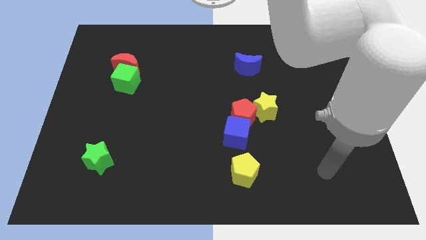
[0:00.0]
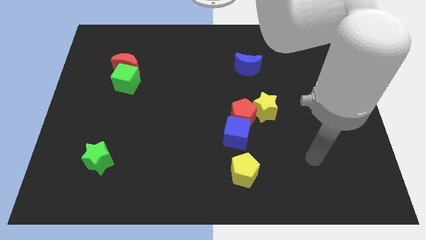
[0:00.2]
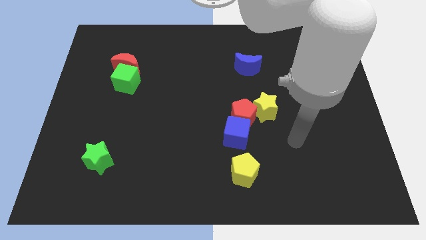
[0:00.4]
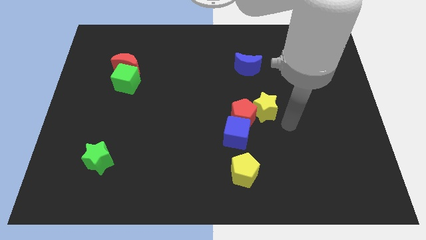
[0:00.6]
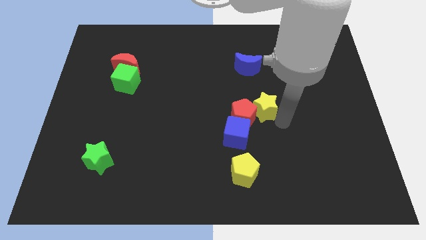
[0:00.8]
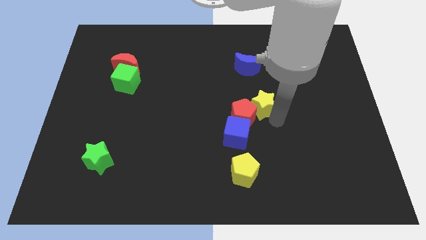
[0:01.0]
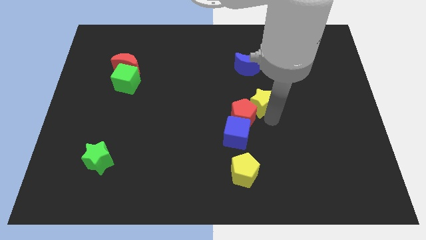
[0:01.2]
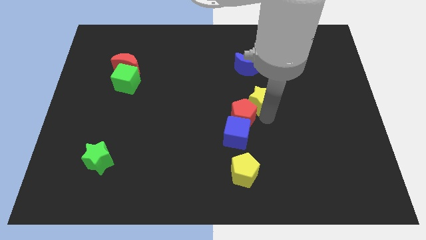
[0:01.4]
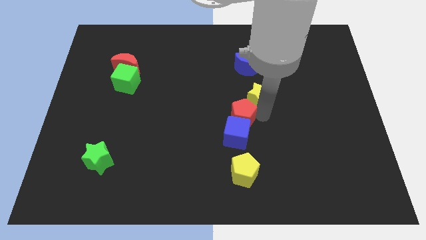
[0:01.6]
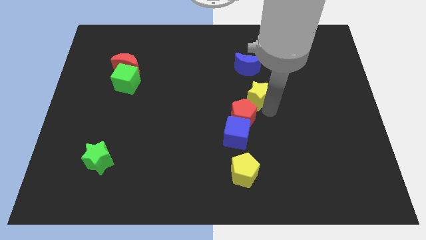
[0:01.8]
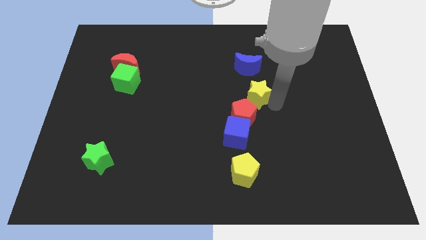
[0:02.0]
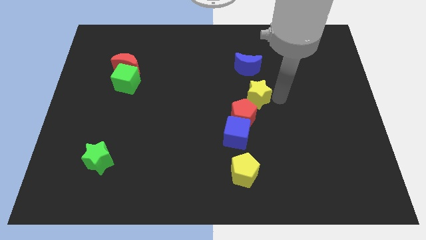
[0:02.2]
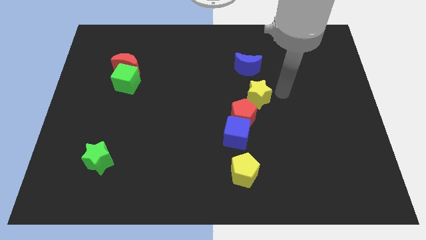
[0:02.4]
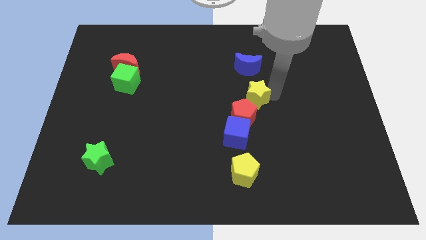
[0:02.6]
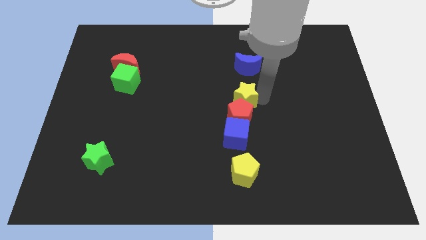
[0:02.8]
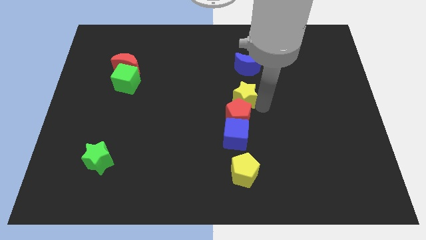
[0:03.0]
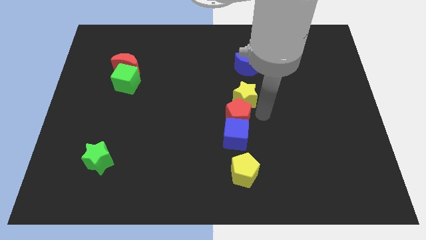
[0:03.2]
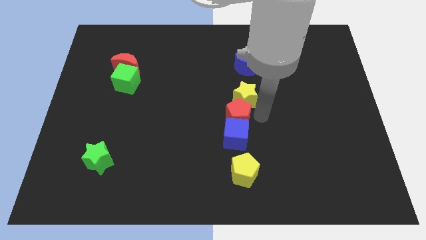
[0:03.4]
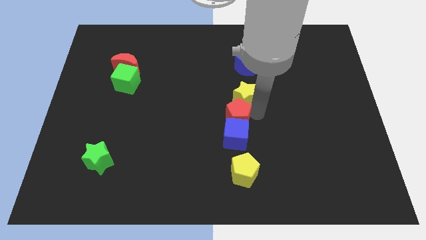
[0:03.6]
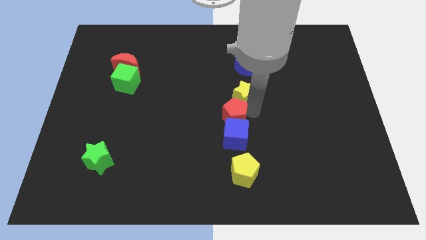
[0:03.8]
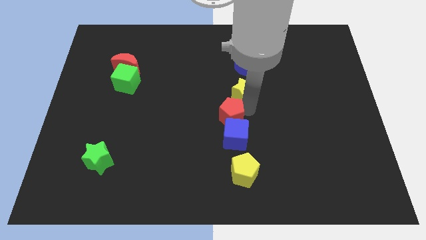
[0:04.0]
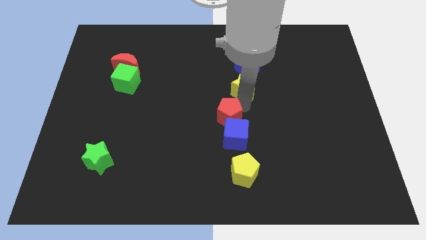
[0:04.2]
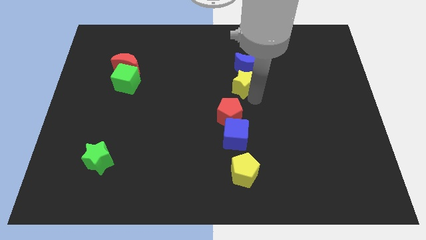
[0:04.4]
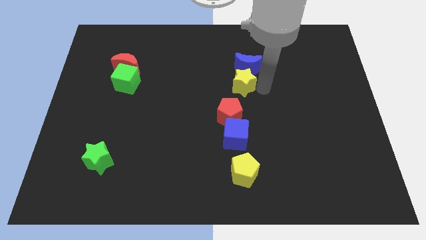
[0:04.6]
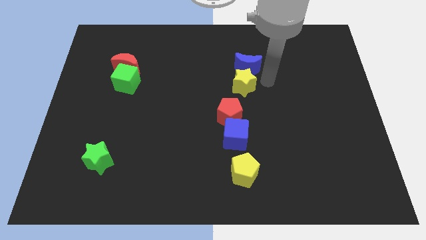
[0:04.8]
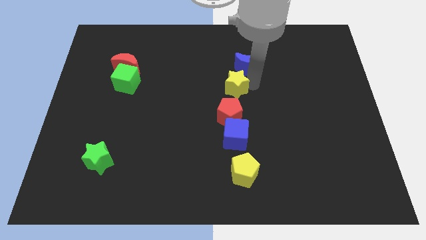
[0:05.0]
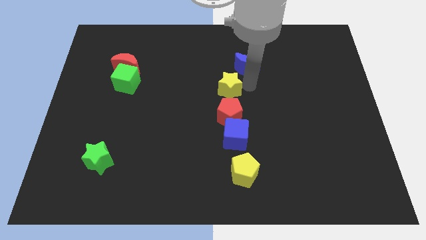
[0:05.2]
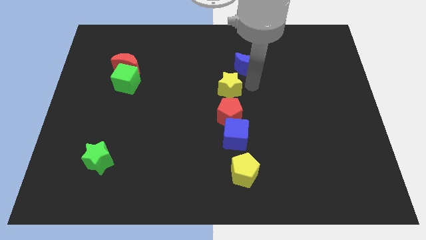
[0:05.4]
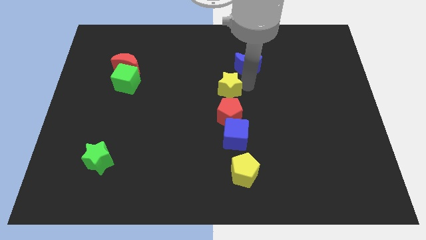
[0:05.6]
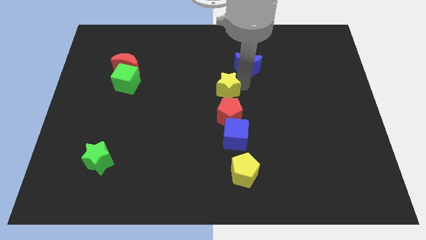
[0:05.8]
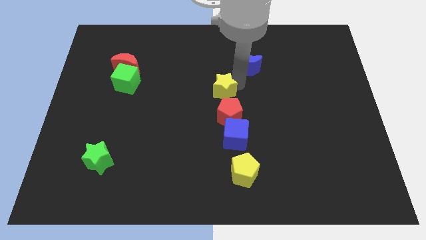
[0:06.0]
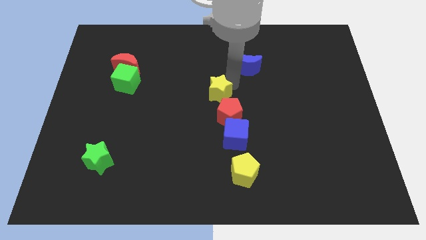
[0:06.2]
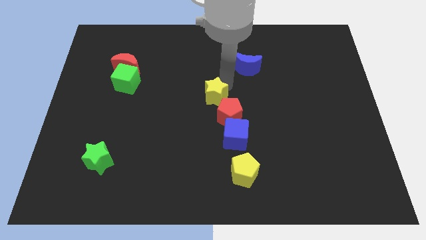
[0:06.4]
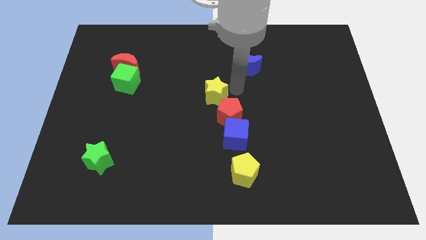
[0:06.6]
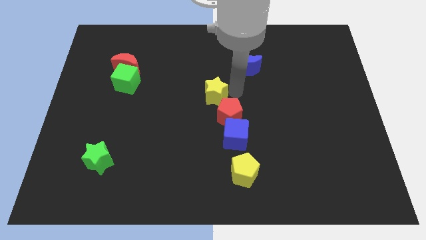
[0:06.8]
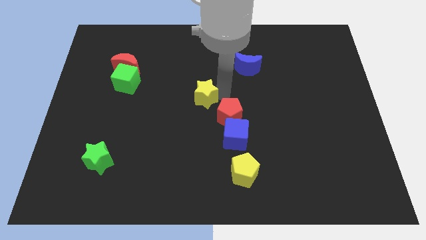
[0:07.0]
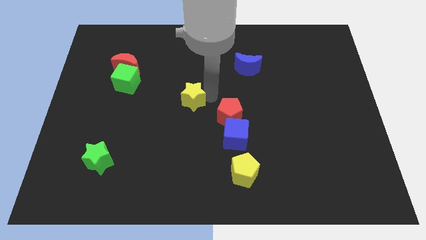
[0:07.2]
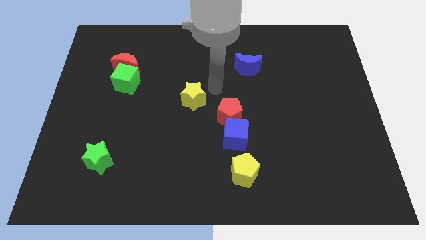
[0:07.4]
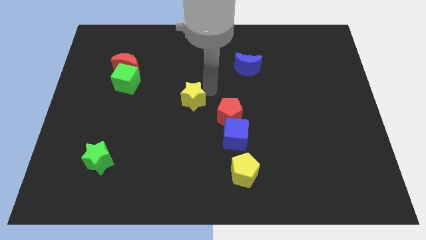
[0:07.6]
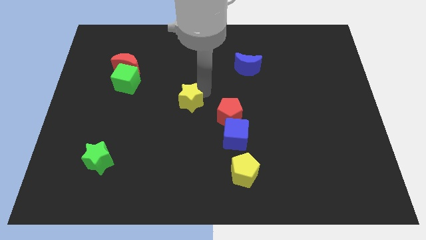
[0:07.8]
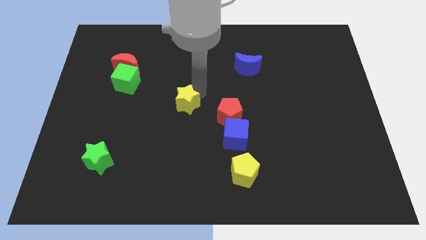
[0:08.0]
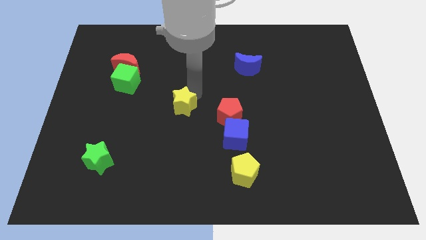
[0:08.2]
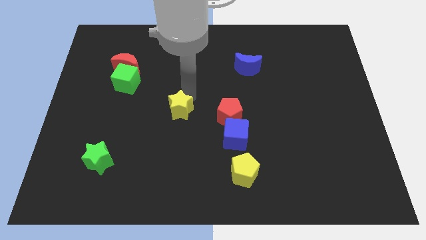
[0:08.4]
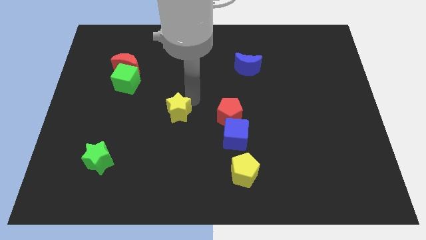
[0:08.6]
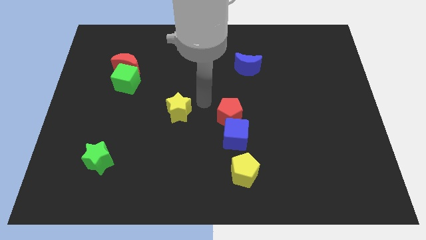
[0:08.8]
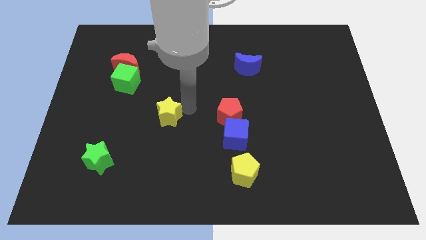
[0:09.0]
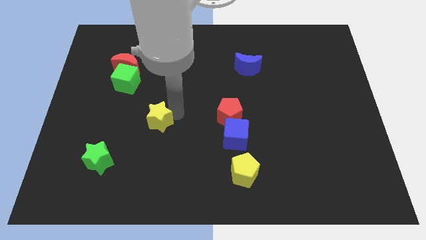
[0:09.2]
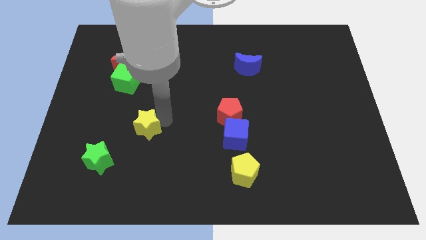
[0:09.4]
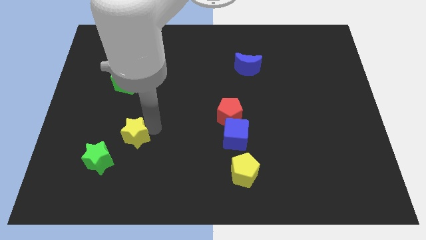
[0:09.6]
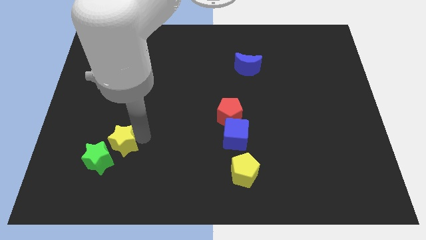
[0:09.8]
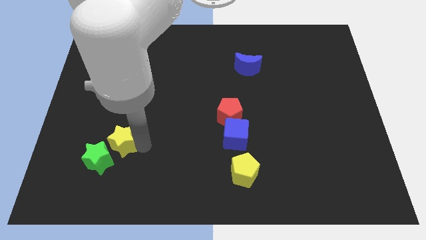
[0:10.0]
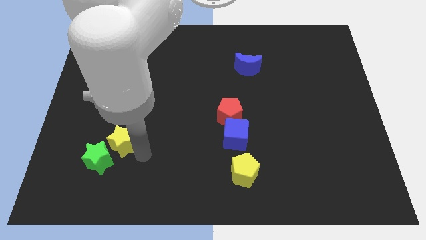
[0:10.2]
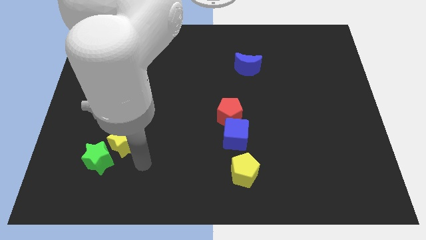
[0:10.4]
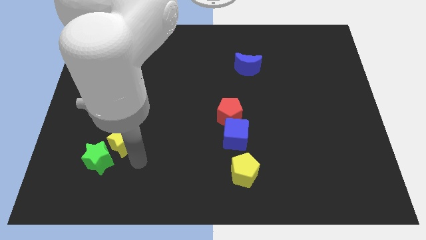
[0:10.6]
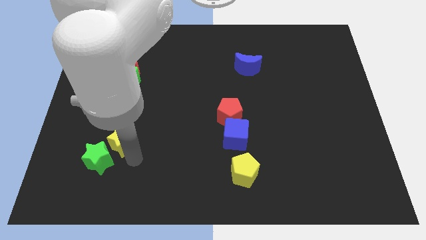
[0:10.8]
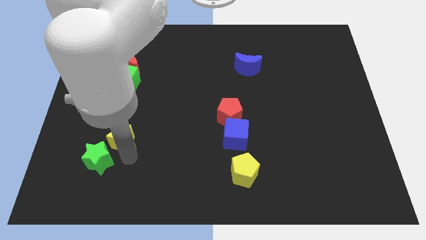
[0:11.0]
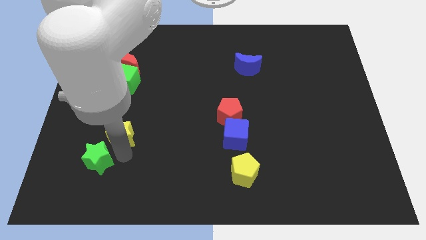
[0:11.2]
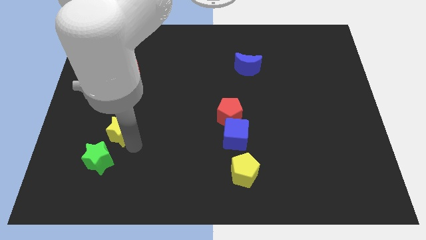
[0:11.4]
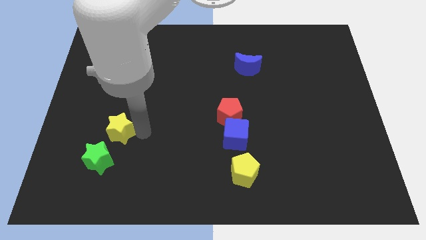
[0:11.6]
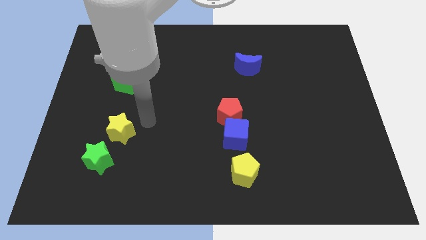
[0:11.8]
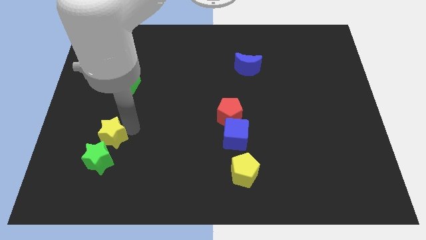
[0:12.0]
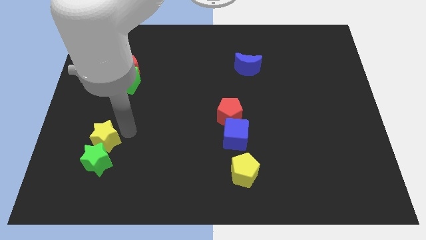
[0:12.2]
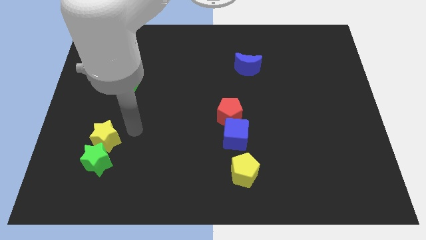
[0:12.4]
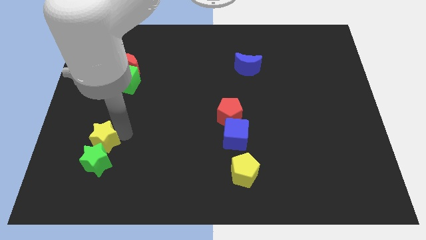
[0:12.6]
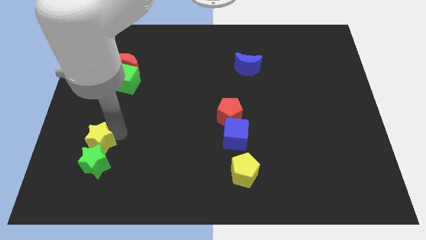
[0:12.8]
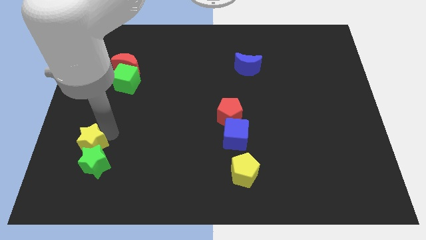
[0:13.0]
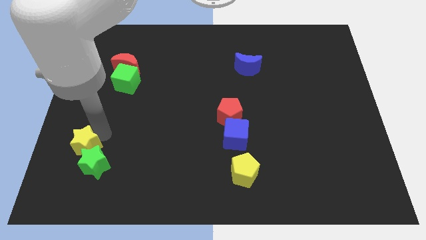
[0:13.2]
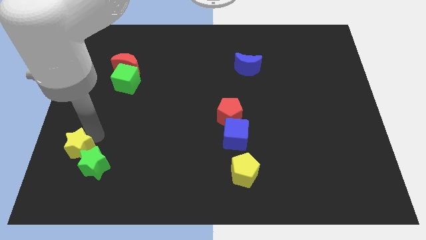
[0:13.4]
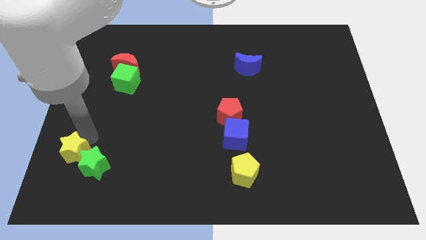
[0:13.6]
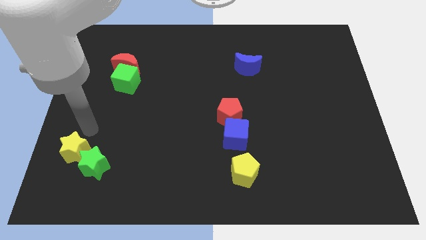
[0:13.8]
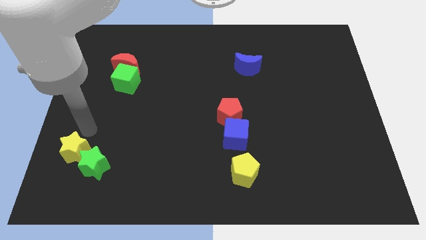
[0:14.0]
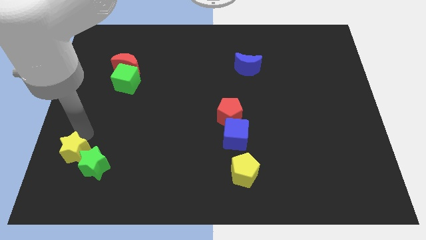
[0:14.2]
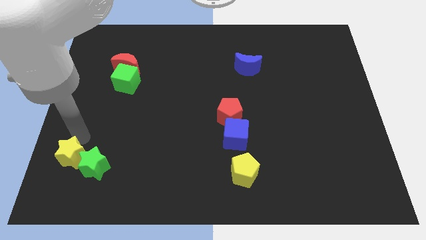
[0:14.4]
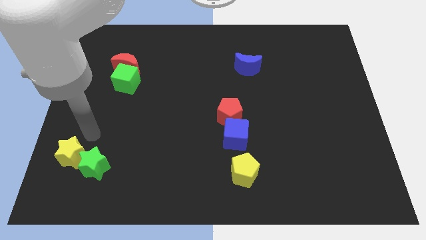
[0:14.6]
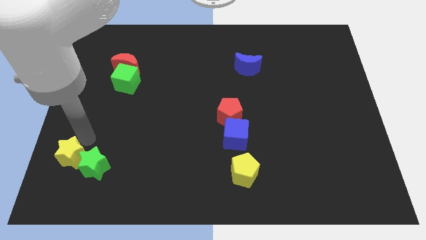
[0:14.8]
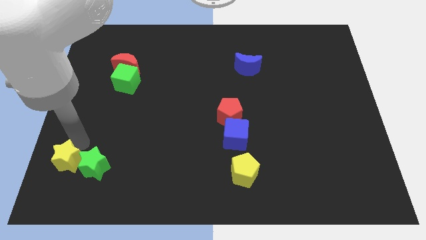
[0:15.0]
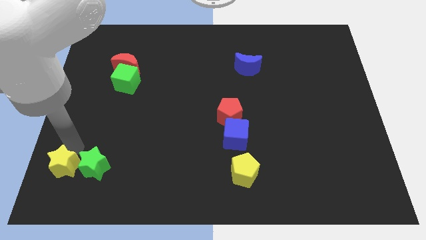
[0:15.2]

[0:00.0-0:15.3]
put the yellow star to the bottom left corner

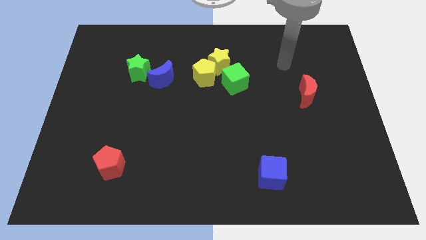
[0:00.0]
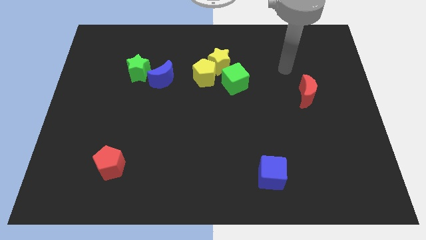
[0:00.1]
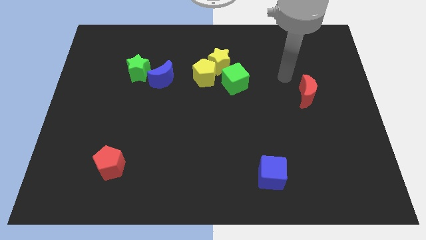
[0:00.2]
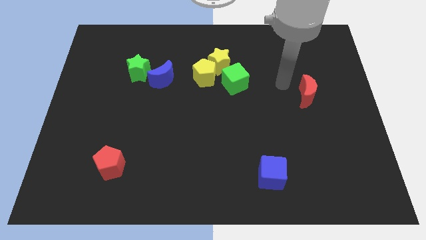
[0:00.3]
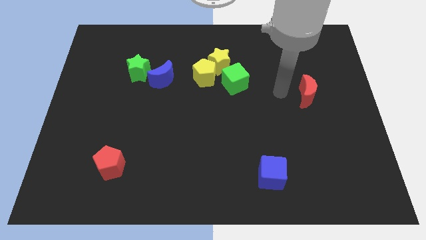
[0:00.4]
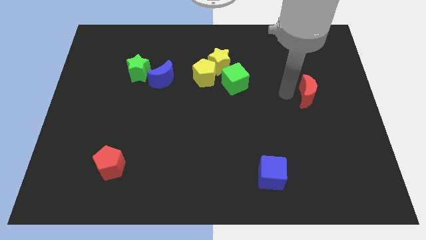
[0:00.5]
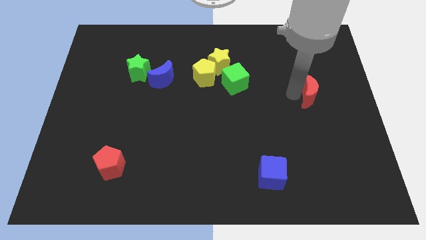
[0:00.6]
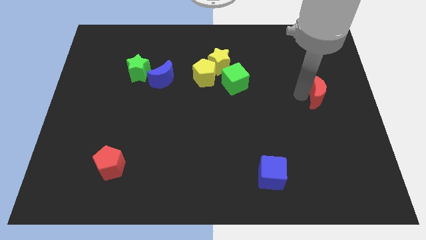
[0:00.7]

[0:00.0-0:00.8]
put the red moon to the center right
